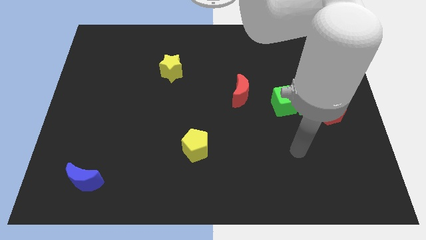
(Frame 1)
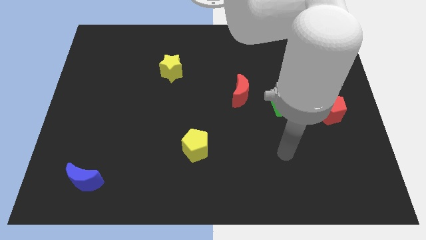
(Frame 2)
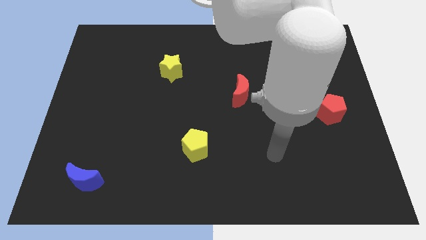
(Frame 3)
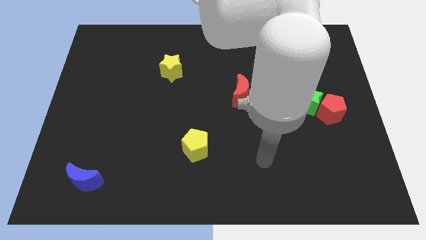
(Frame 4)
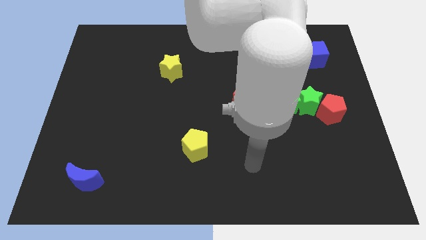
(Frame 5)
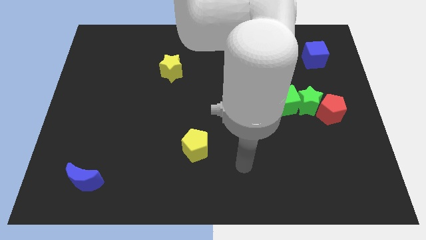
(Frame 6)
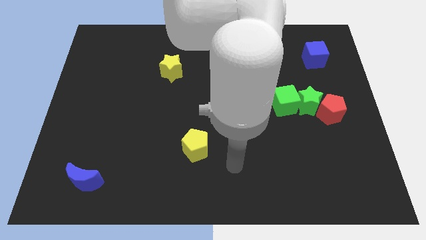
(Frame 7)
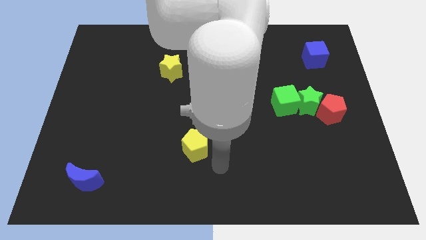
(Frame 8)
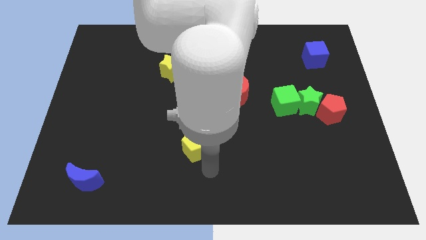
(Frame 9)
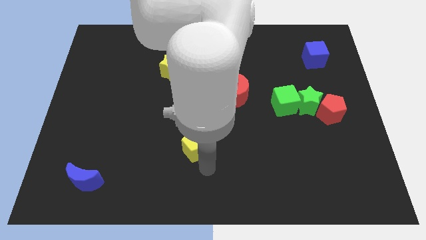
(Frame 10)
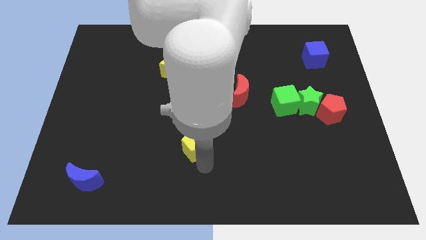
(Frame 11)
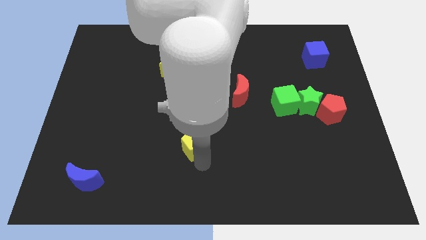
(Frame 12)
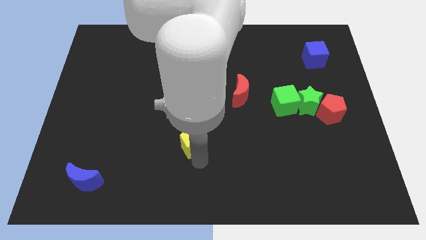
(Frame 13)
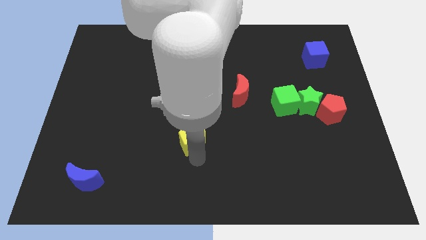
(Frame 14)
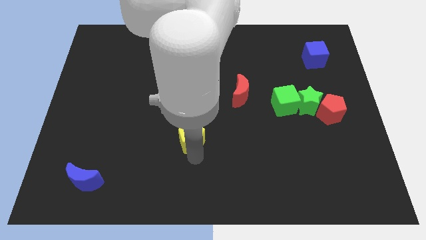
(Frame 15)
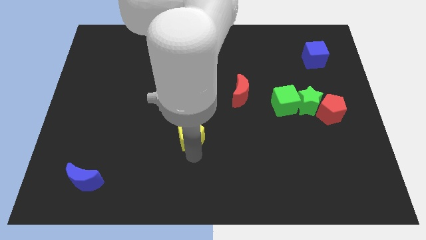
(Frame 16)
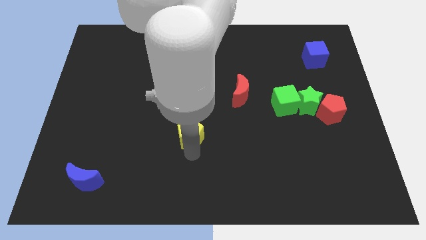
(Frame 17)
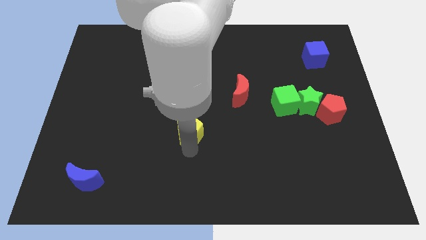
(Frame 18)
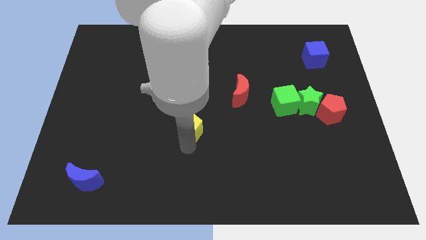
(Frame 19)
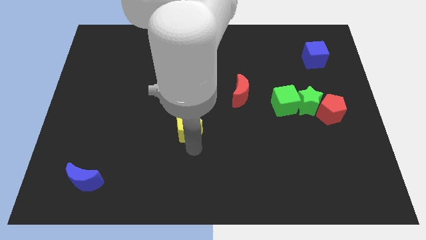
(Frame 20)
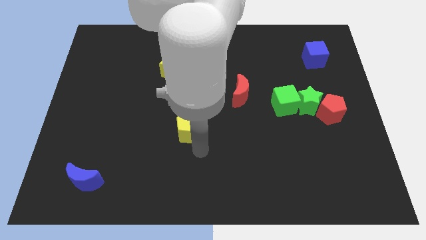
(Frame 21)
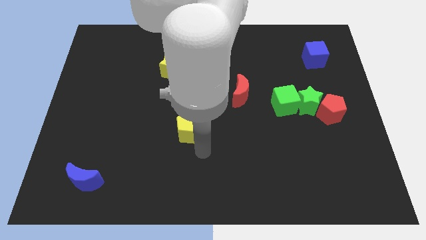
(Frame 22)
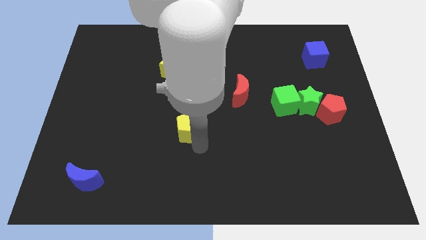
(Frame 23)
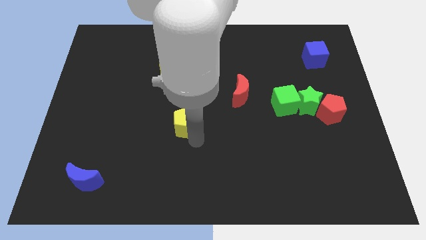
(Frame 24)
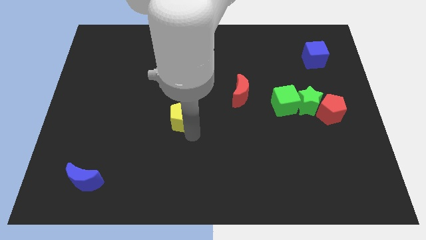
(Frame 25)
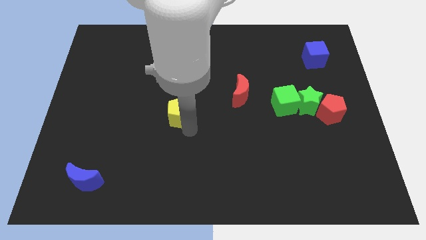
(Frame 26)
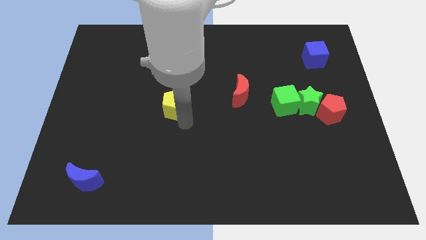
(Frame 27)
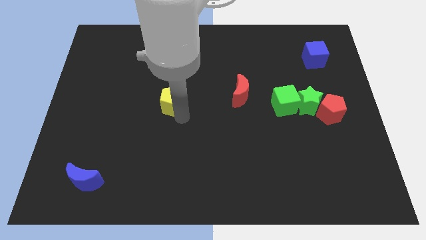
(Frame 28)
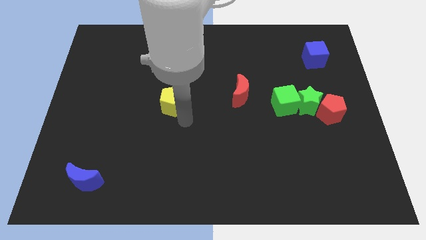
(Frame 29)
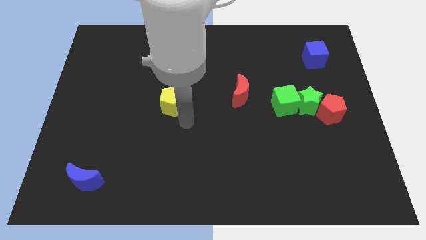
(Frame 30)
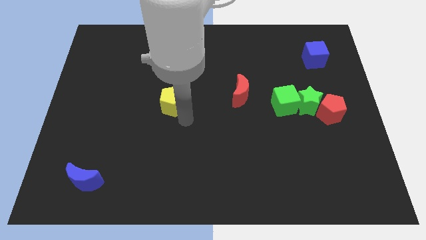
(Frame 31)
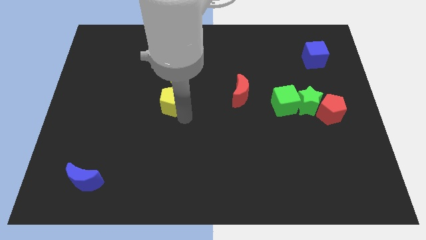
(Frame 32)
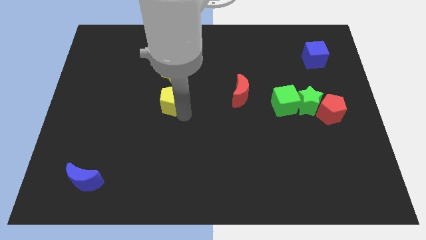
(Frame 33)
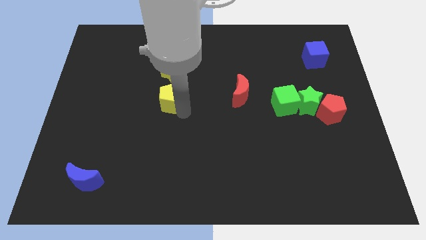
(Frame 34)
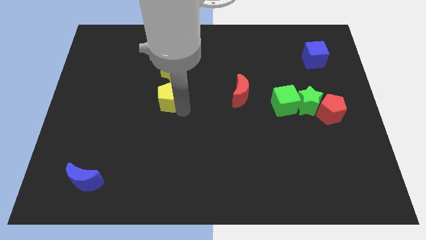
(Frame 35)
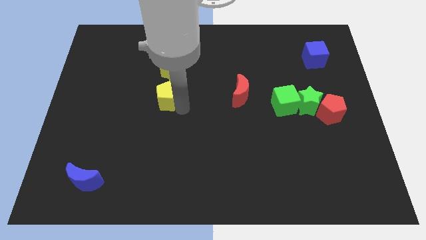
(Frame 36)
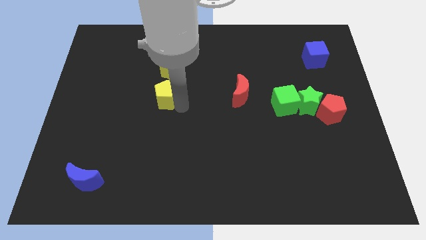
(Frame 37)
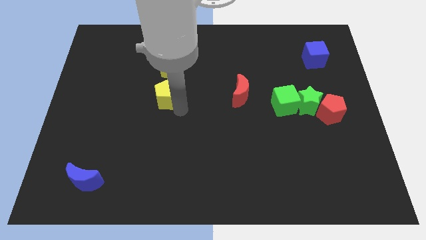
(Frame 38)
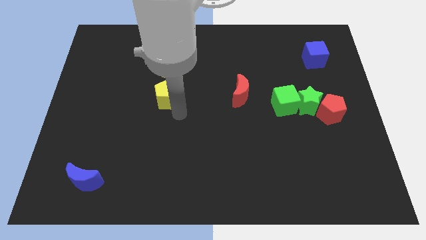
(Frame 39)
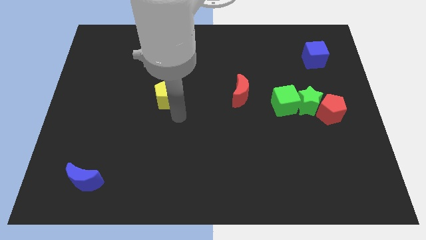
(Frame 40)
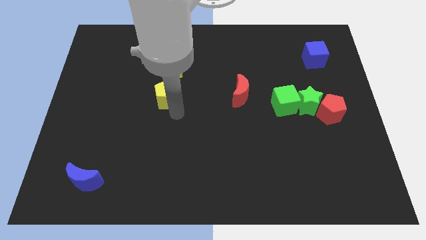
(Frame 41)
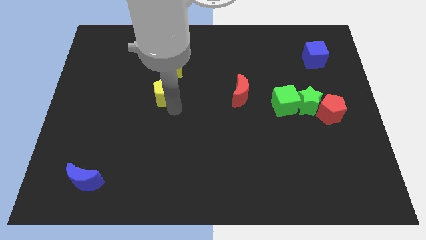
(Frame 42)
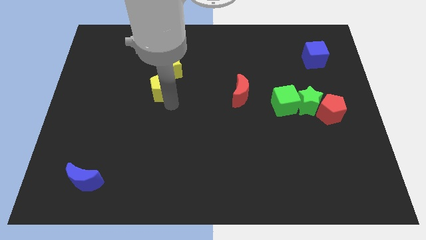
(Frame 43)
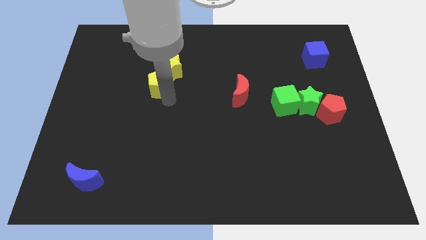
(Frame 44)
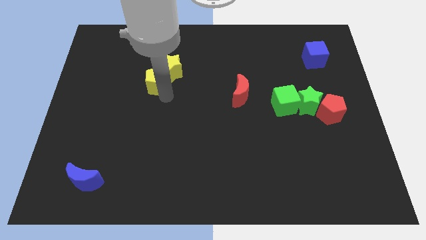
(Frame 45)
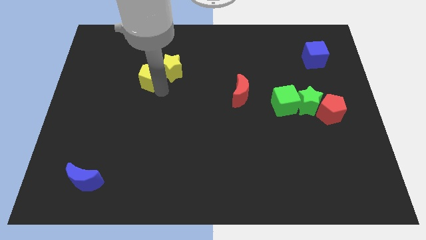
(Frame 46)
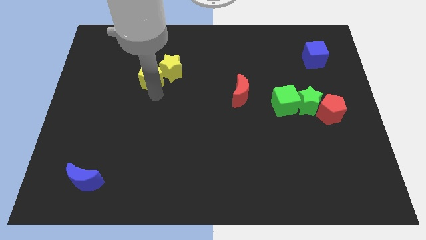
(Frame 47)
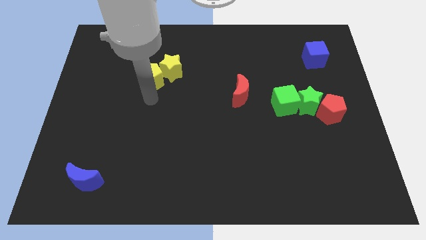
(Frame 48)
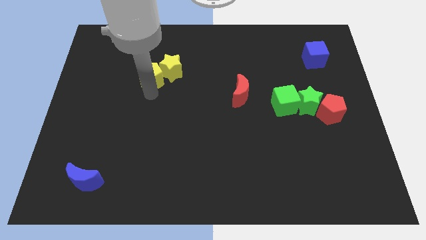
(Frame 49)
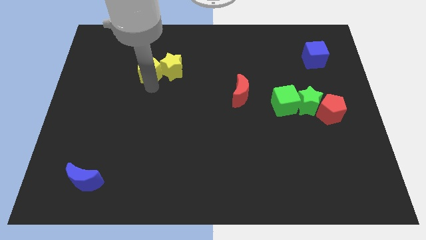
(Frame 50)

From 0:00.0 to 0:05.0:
put the yellow pentagon to the top left side of the yellow star

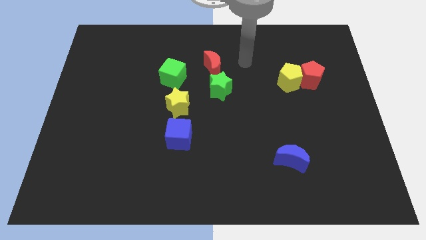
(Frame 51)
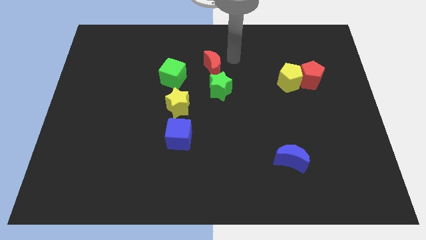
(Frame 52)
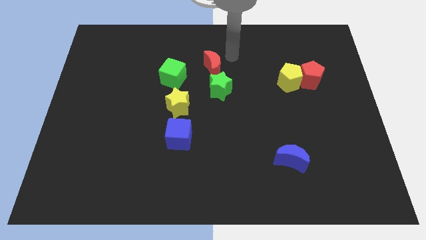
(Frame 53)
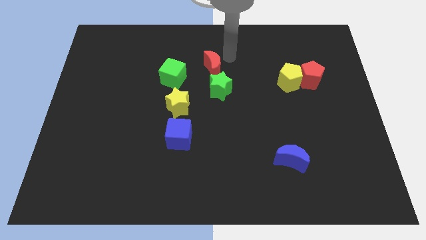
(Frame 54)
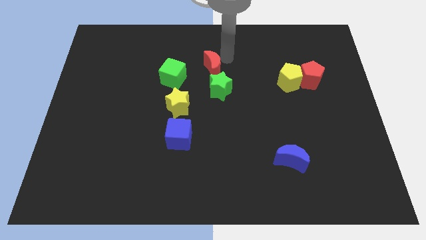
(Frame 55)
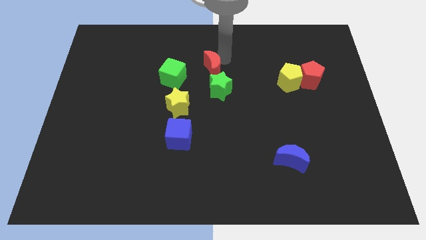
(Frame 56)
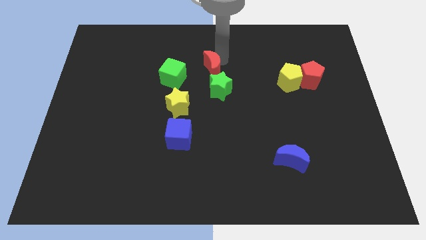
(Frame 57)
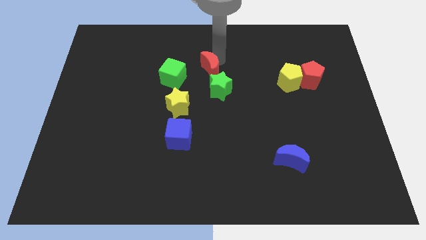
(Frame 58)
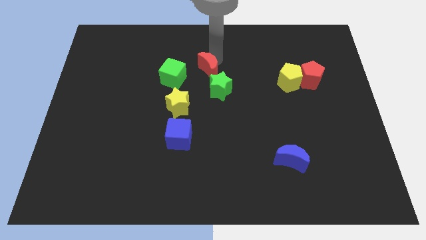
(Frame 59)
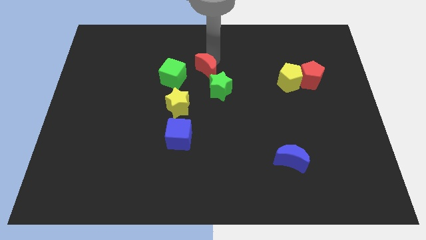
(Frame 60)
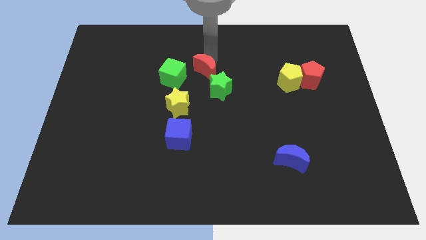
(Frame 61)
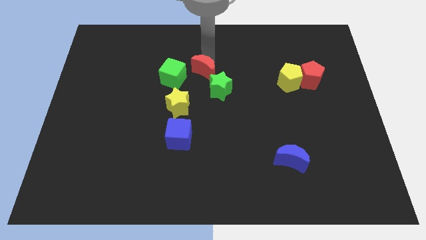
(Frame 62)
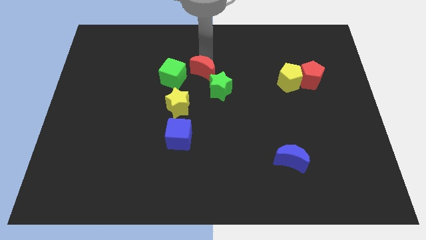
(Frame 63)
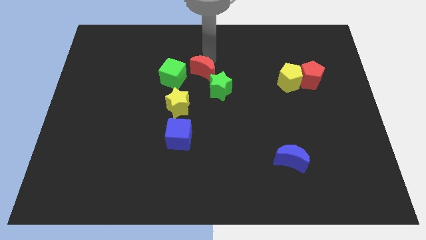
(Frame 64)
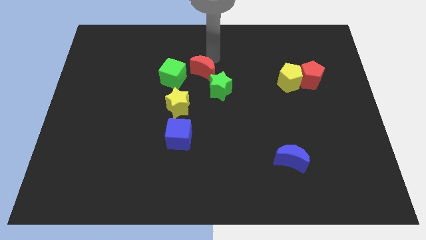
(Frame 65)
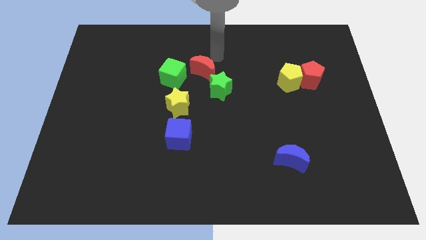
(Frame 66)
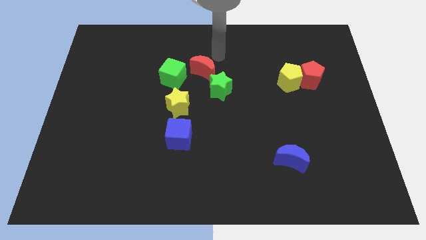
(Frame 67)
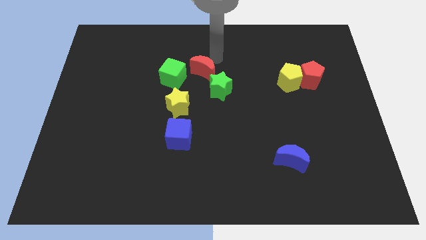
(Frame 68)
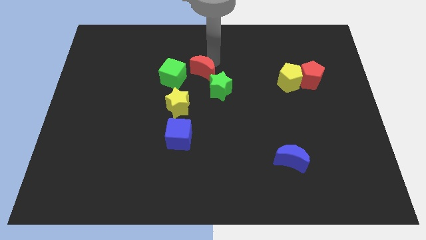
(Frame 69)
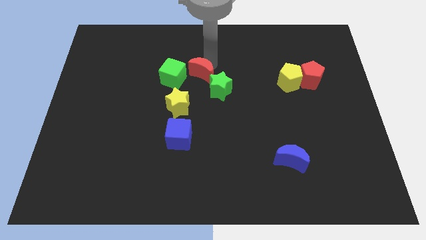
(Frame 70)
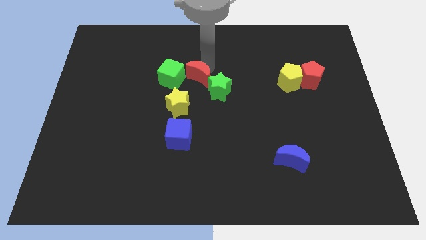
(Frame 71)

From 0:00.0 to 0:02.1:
put the red moon to the left side of the green star

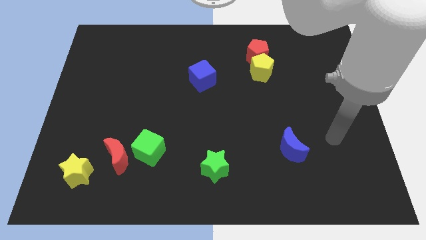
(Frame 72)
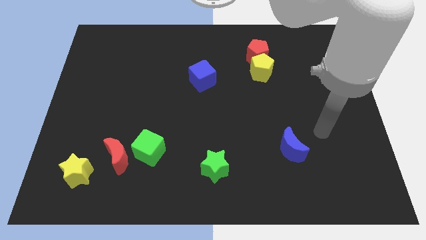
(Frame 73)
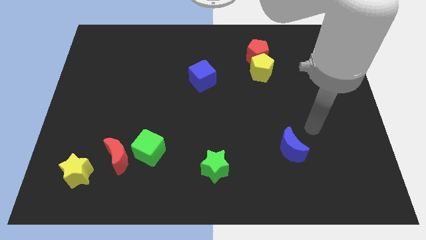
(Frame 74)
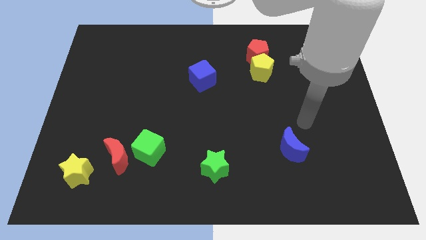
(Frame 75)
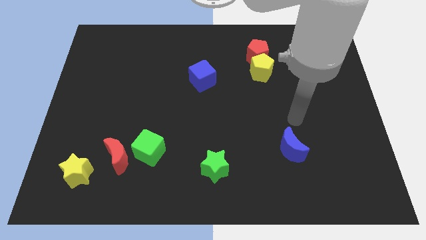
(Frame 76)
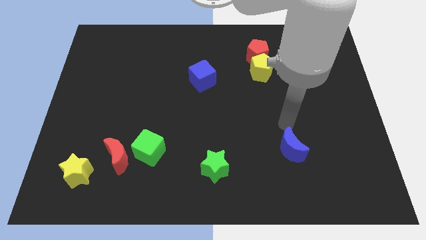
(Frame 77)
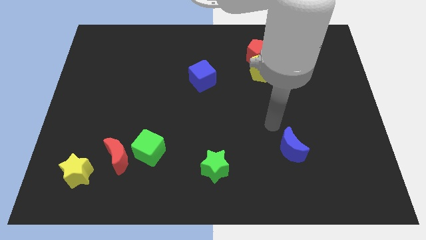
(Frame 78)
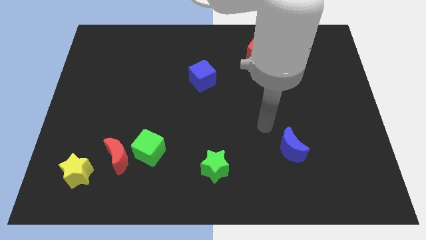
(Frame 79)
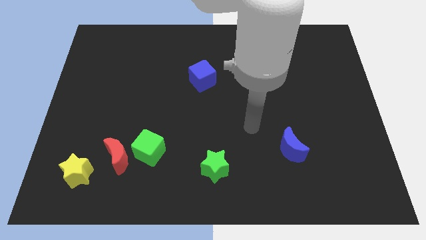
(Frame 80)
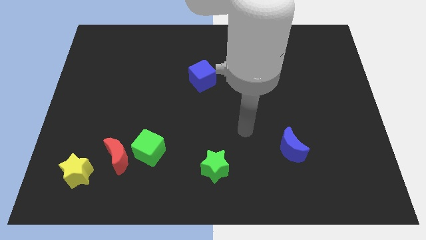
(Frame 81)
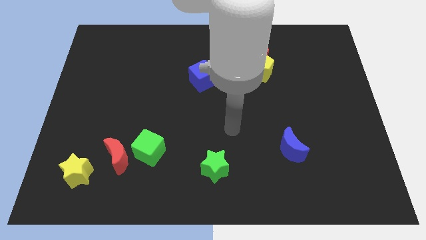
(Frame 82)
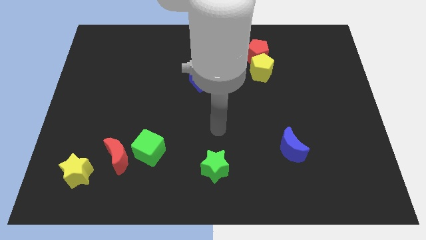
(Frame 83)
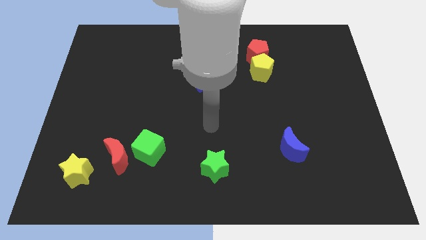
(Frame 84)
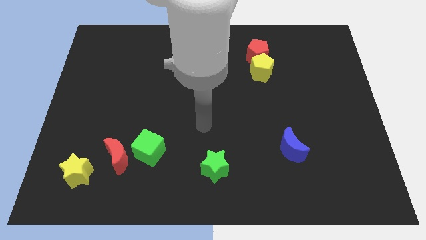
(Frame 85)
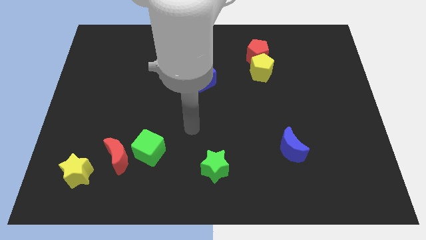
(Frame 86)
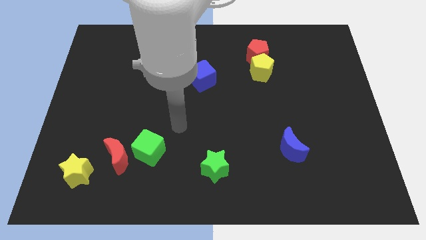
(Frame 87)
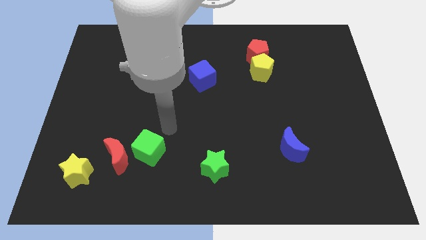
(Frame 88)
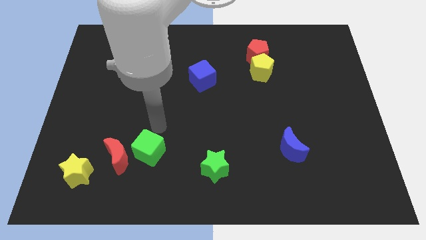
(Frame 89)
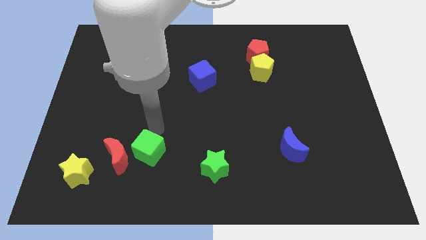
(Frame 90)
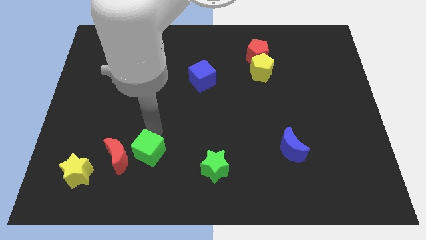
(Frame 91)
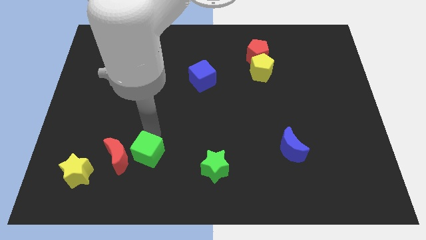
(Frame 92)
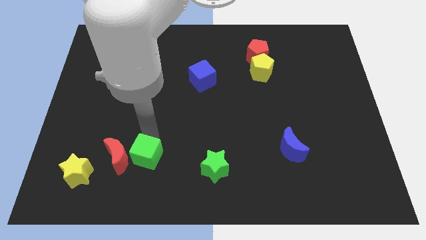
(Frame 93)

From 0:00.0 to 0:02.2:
push the green cube to the bottom right side of the red moon
